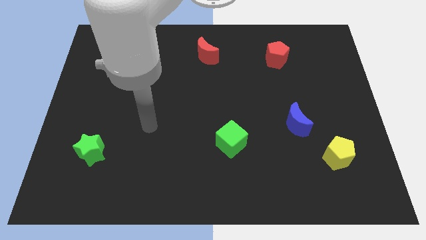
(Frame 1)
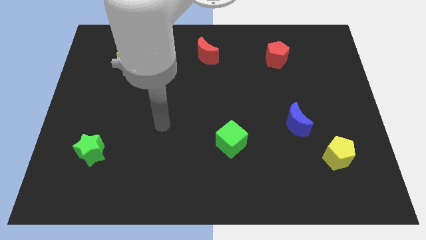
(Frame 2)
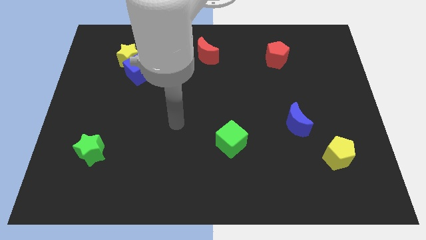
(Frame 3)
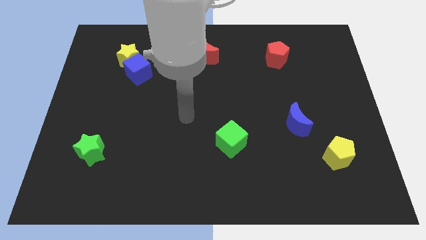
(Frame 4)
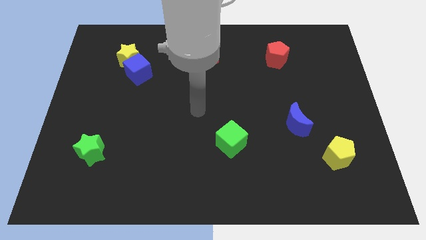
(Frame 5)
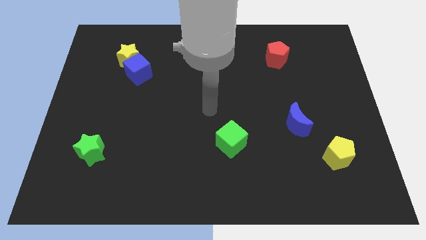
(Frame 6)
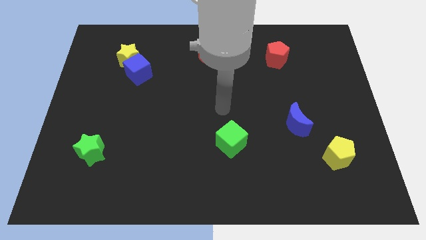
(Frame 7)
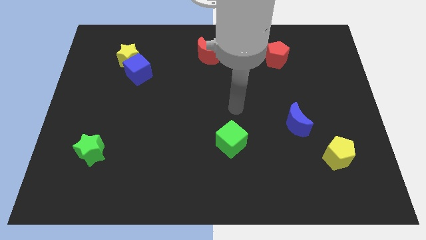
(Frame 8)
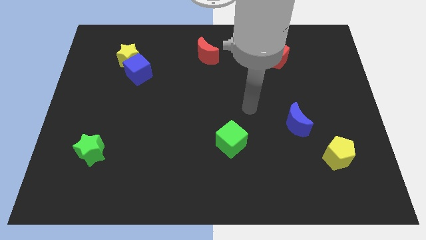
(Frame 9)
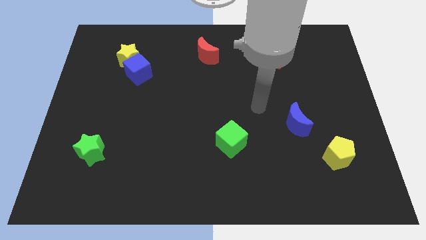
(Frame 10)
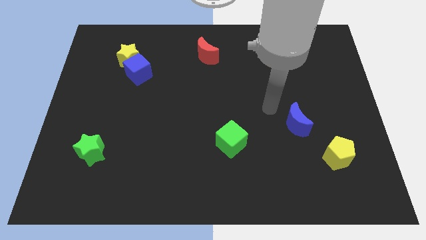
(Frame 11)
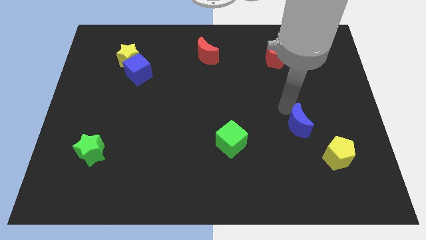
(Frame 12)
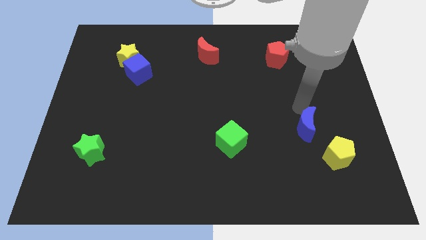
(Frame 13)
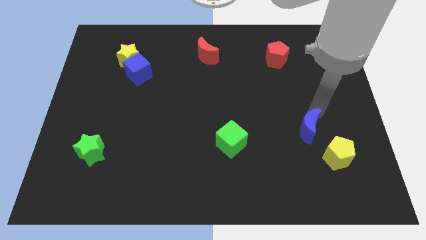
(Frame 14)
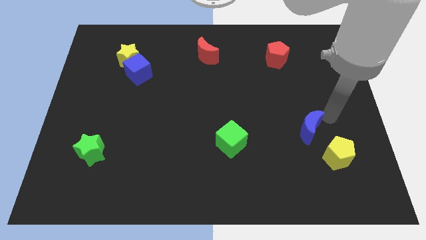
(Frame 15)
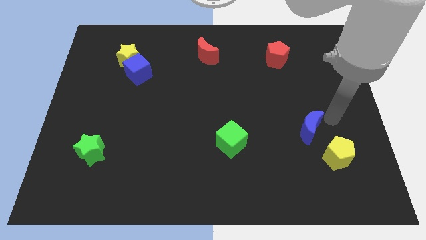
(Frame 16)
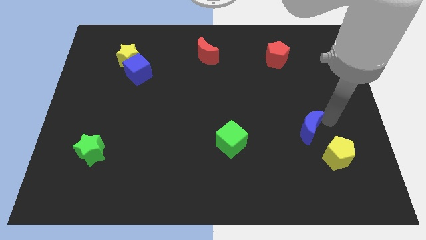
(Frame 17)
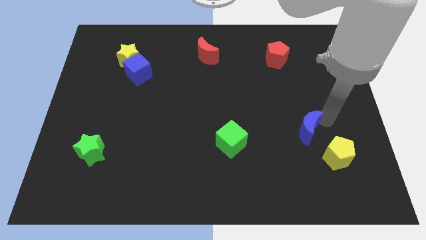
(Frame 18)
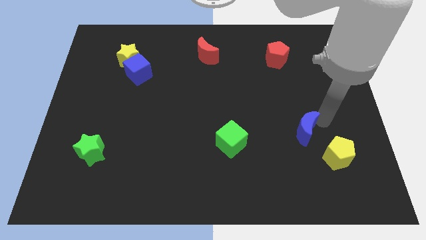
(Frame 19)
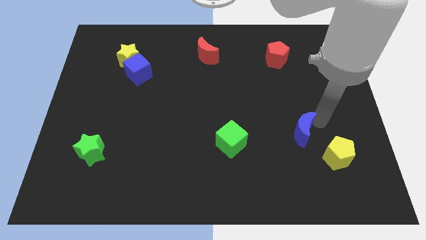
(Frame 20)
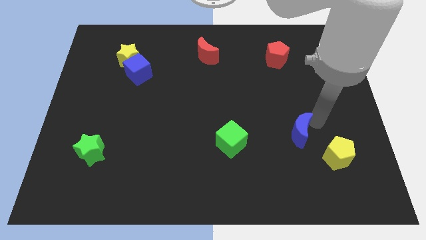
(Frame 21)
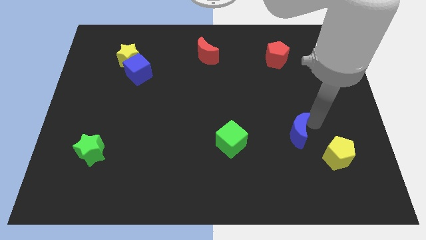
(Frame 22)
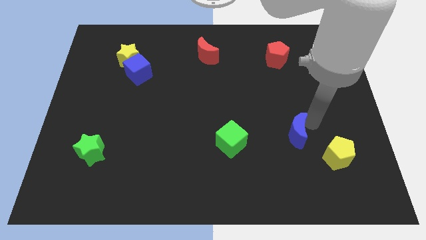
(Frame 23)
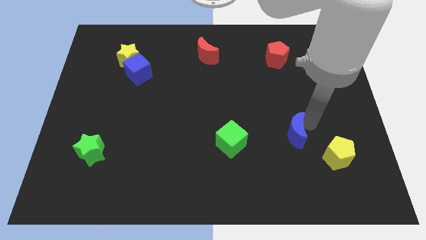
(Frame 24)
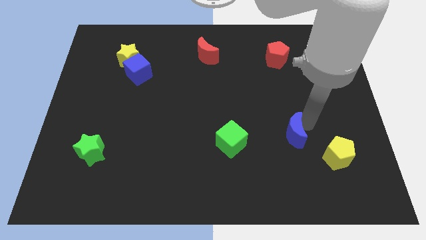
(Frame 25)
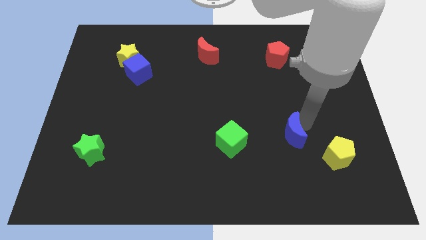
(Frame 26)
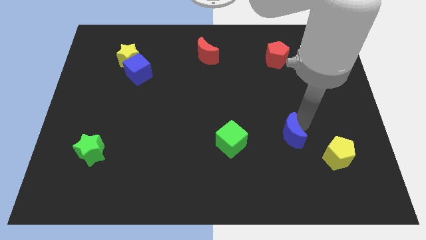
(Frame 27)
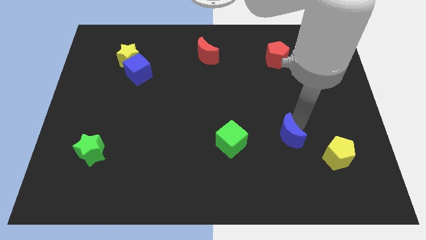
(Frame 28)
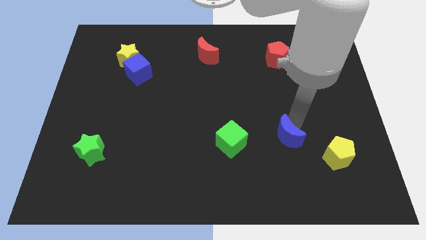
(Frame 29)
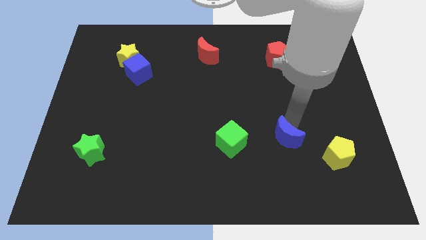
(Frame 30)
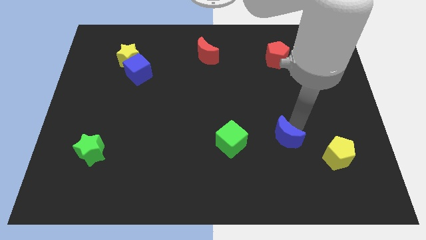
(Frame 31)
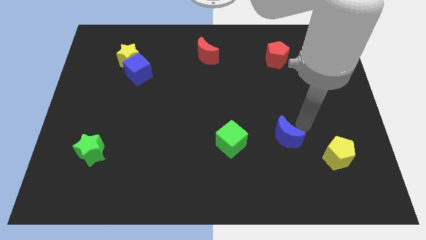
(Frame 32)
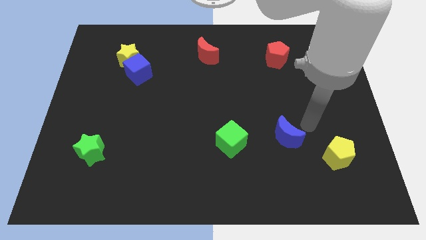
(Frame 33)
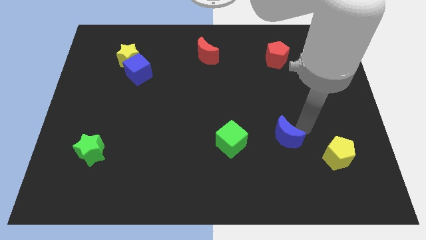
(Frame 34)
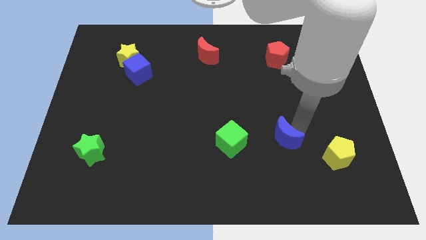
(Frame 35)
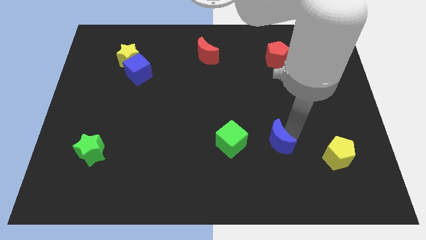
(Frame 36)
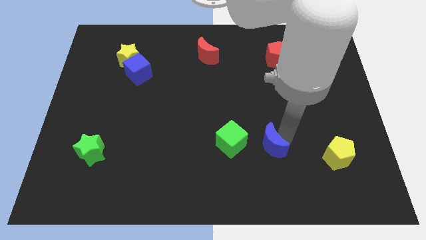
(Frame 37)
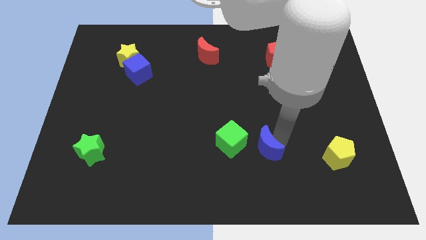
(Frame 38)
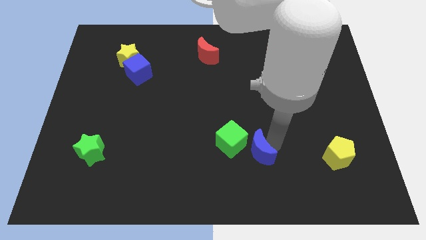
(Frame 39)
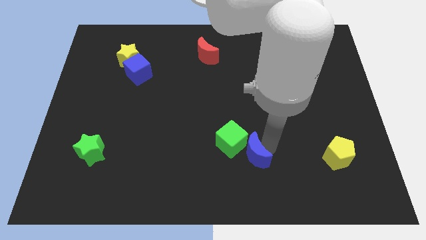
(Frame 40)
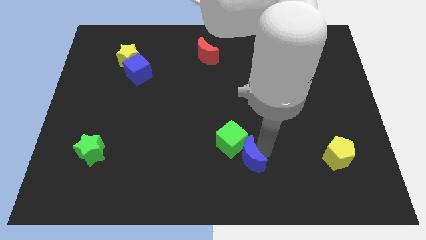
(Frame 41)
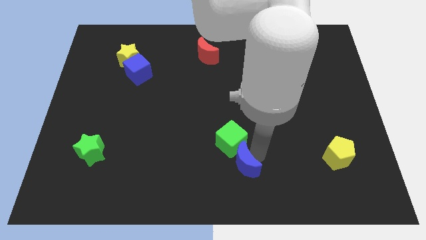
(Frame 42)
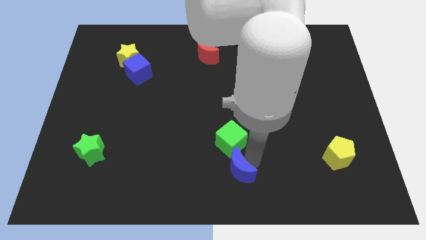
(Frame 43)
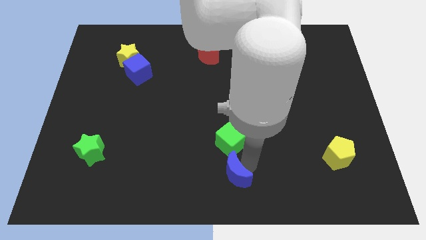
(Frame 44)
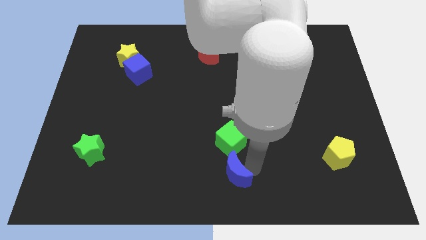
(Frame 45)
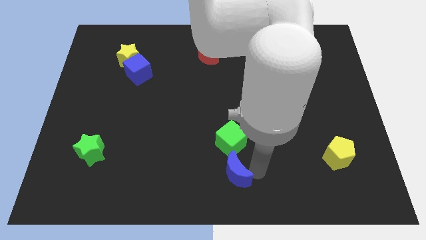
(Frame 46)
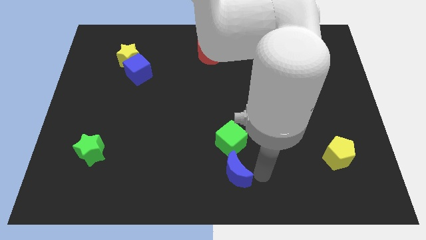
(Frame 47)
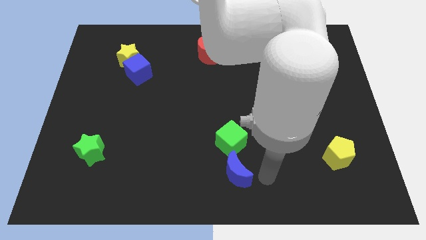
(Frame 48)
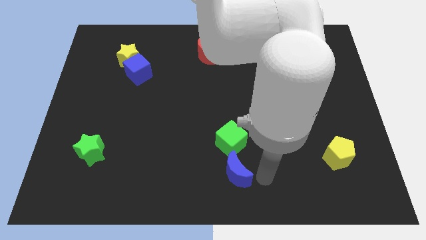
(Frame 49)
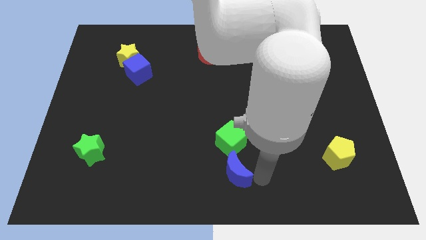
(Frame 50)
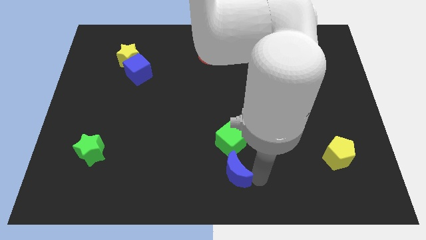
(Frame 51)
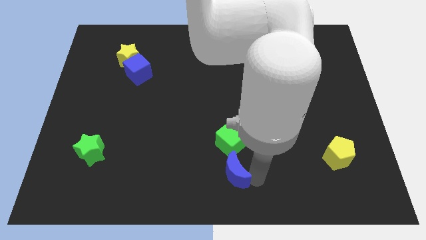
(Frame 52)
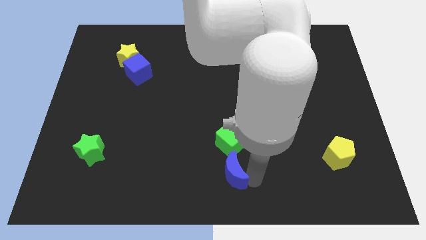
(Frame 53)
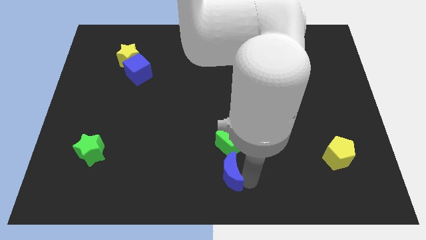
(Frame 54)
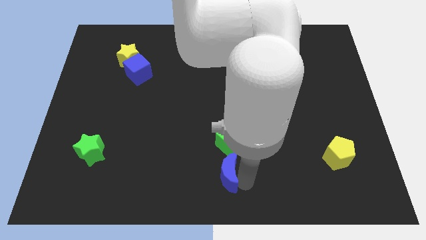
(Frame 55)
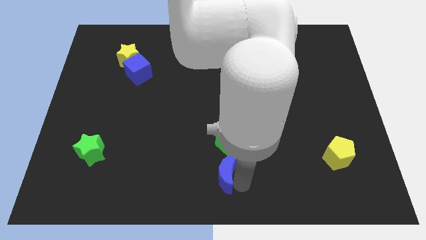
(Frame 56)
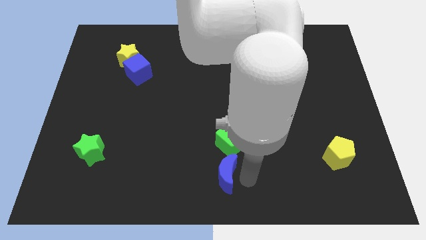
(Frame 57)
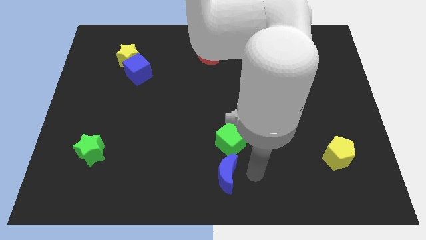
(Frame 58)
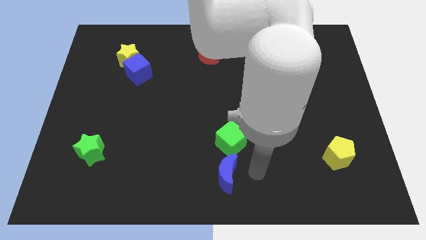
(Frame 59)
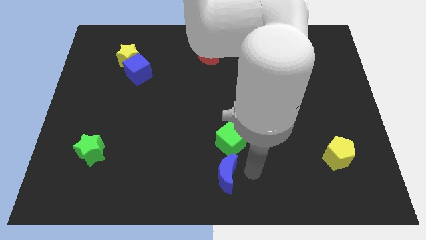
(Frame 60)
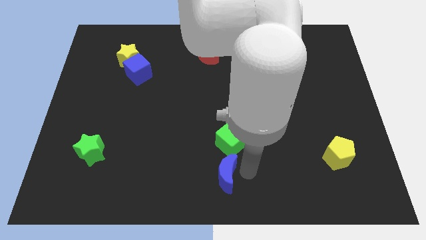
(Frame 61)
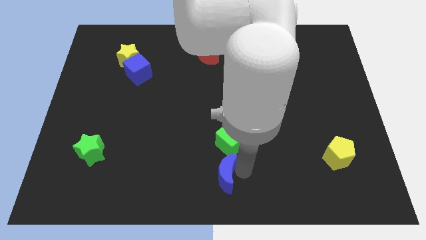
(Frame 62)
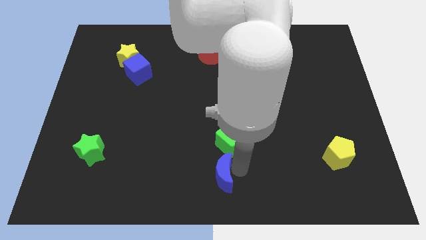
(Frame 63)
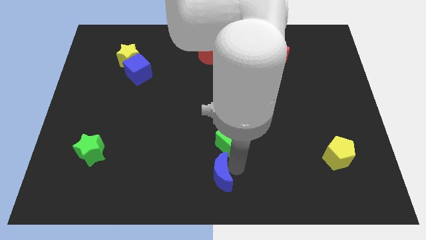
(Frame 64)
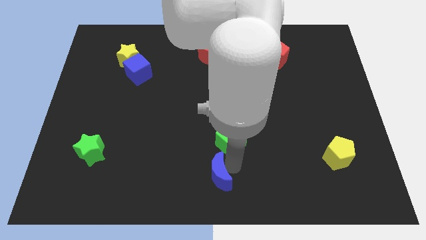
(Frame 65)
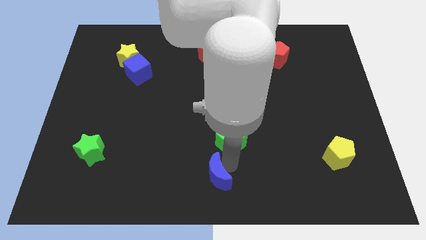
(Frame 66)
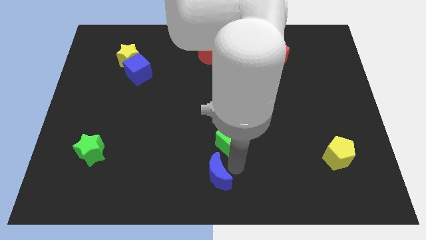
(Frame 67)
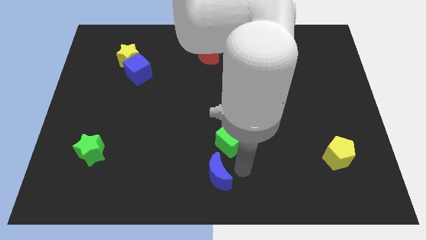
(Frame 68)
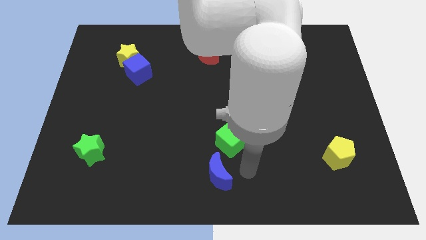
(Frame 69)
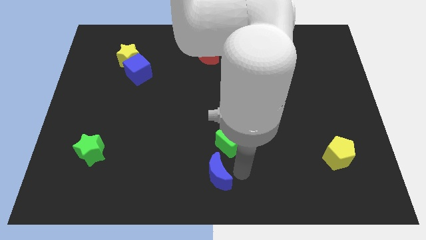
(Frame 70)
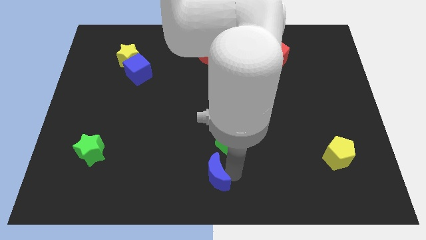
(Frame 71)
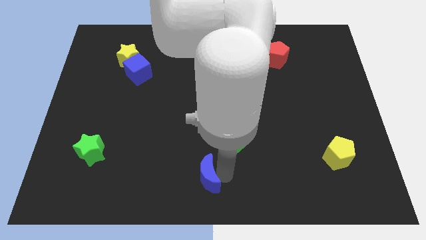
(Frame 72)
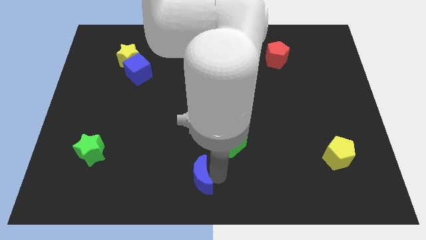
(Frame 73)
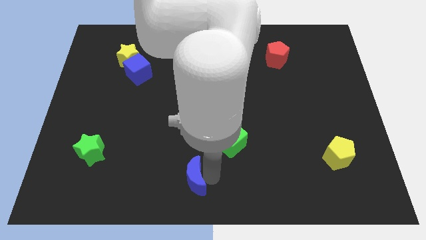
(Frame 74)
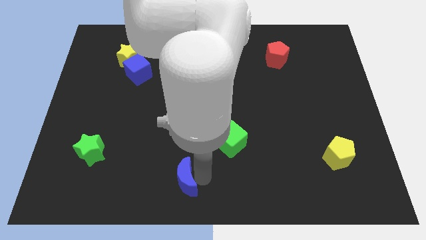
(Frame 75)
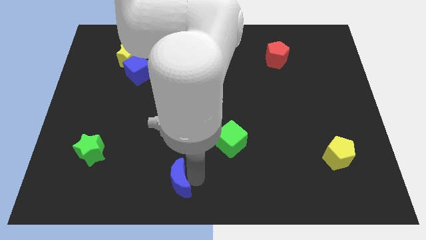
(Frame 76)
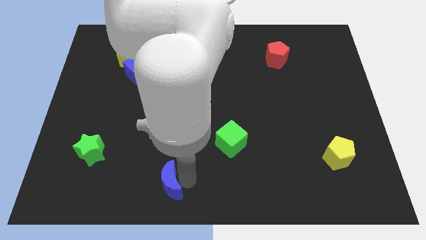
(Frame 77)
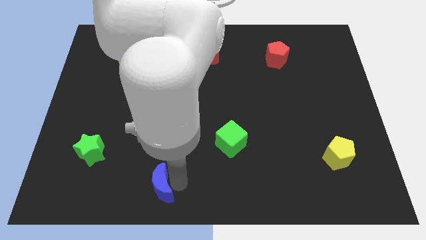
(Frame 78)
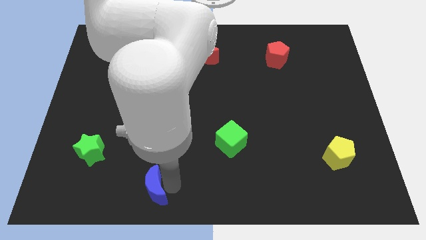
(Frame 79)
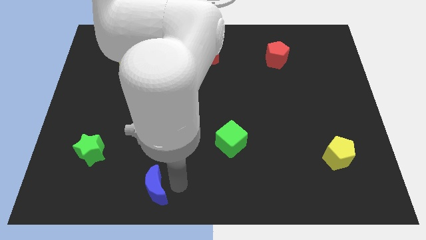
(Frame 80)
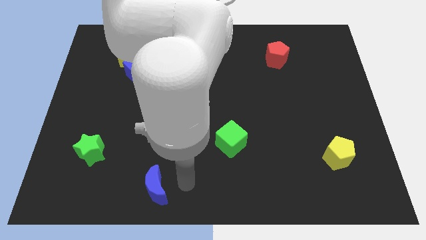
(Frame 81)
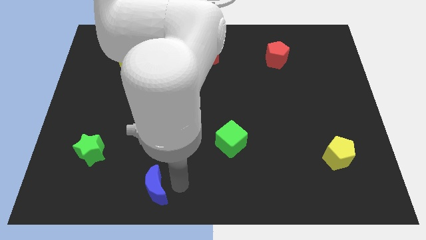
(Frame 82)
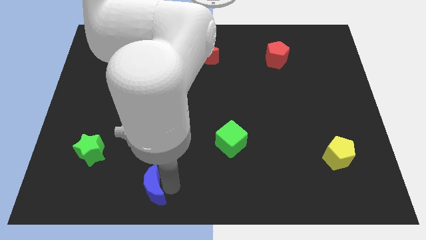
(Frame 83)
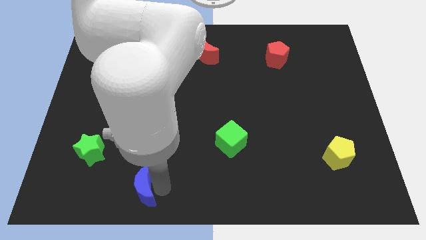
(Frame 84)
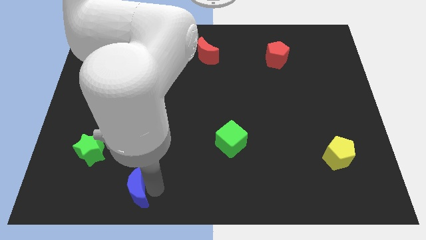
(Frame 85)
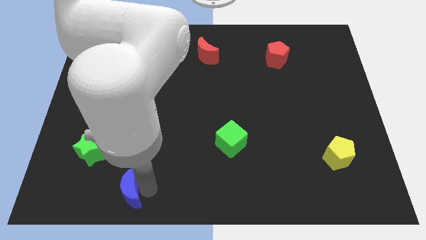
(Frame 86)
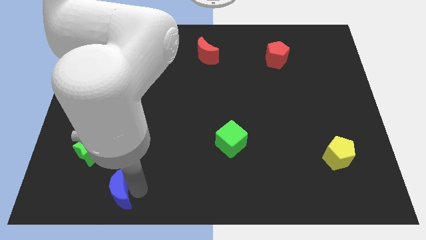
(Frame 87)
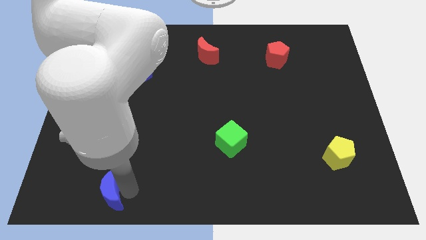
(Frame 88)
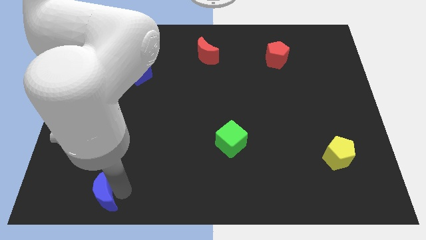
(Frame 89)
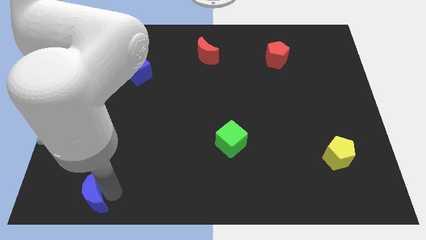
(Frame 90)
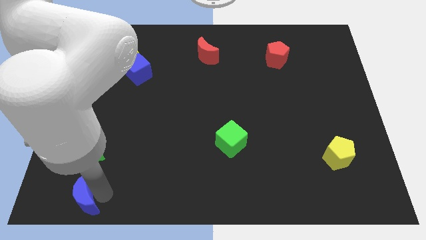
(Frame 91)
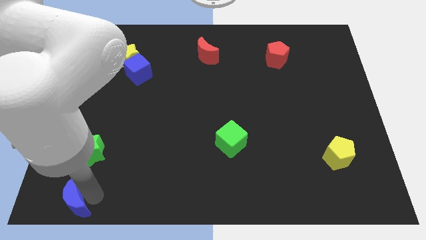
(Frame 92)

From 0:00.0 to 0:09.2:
slide the blue moon to the bottom left of the board
